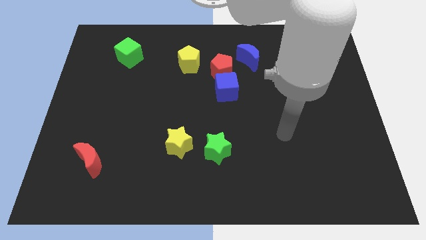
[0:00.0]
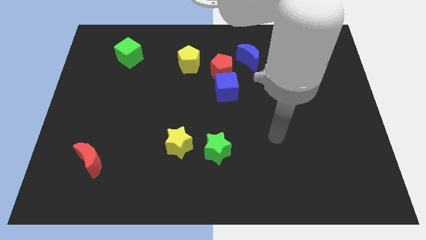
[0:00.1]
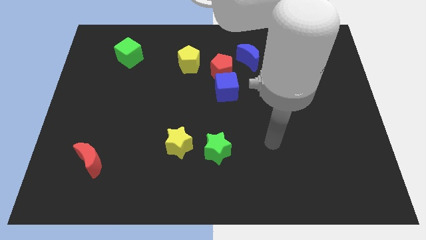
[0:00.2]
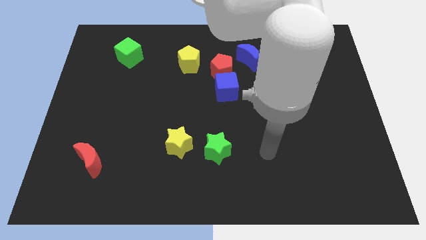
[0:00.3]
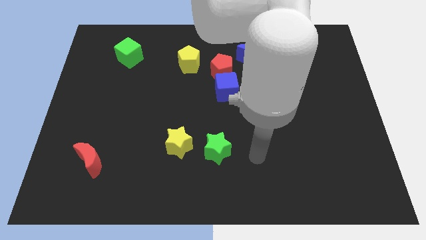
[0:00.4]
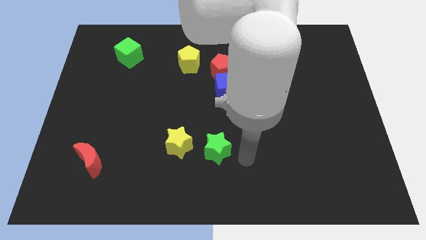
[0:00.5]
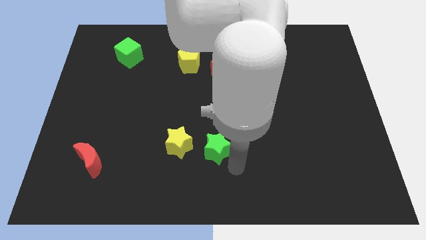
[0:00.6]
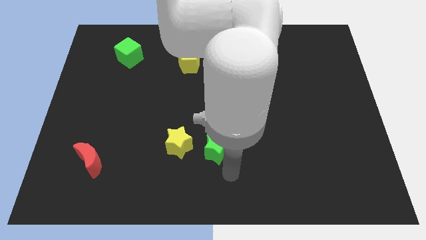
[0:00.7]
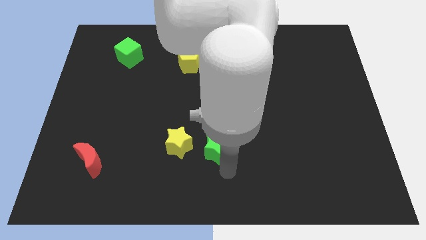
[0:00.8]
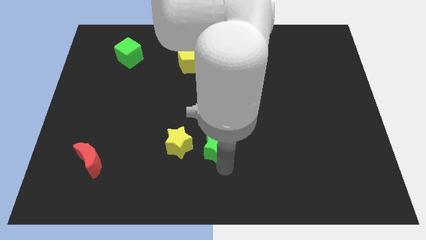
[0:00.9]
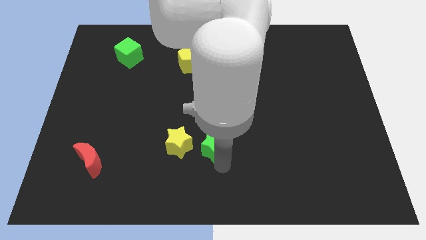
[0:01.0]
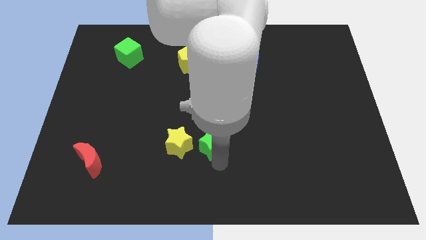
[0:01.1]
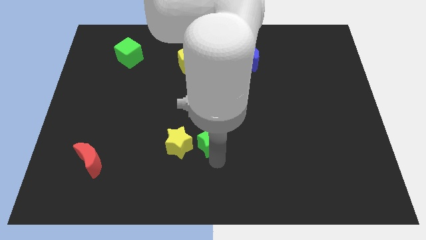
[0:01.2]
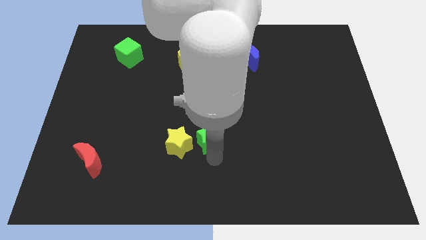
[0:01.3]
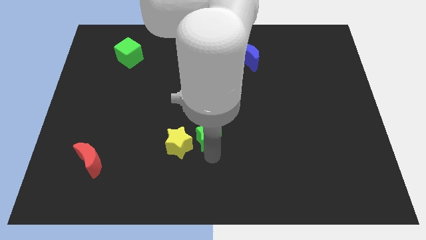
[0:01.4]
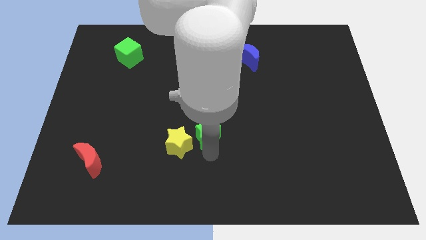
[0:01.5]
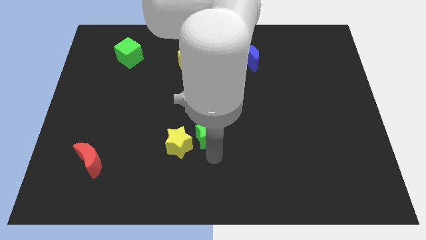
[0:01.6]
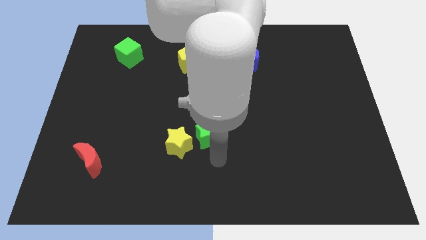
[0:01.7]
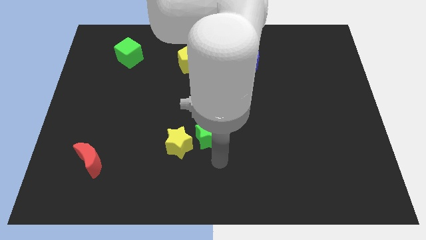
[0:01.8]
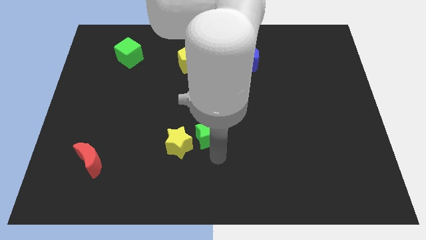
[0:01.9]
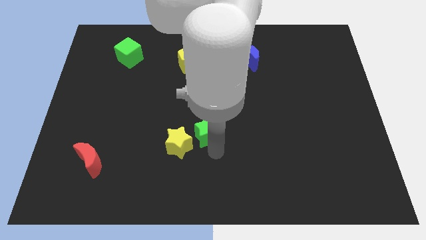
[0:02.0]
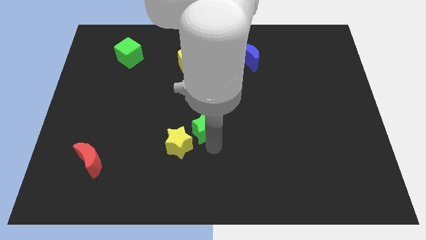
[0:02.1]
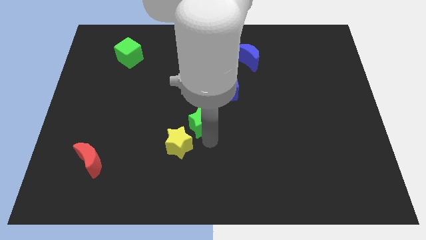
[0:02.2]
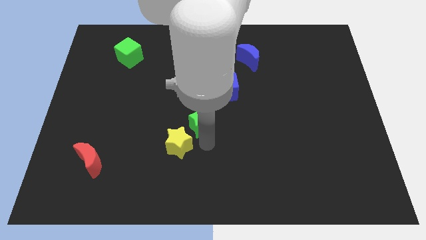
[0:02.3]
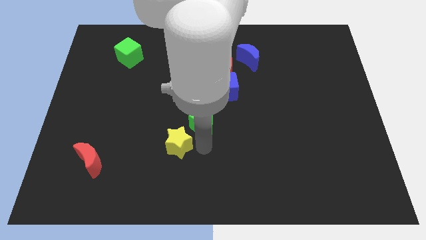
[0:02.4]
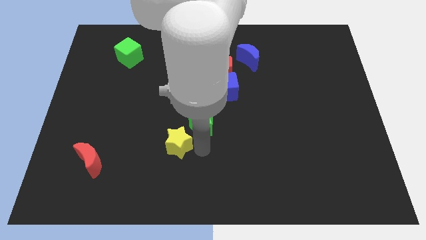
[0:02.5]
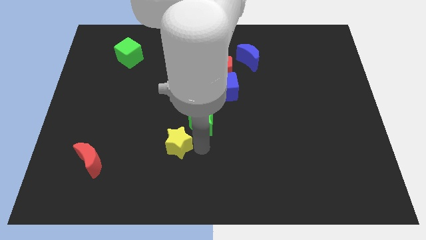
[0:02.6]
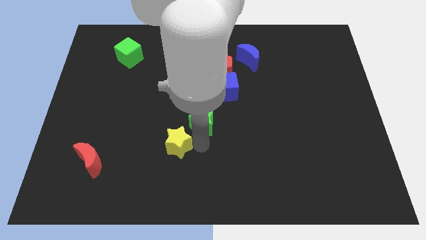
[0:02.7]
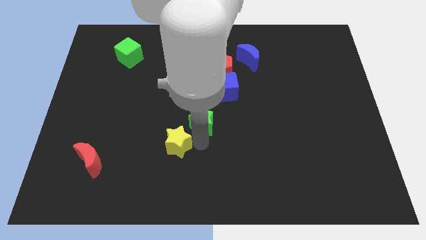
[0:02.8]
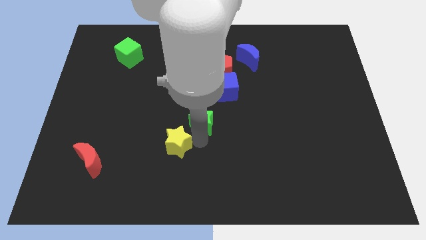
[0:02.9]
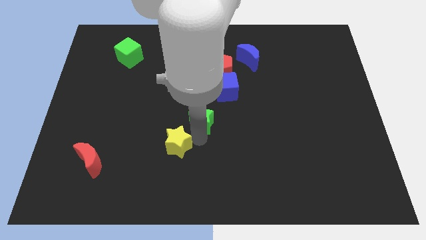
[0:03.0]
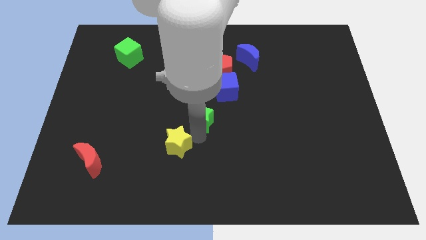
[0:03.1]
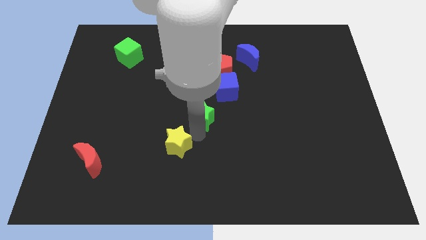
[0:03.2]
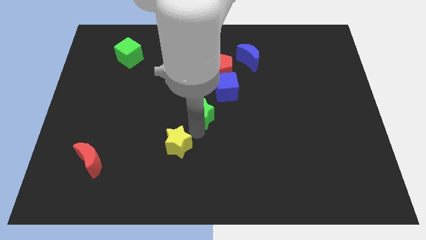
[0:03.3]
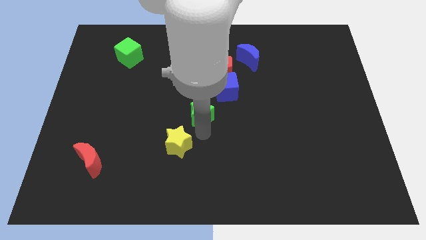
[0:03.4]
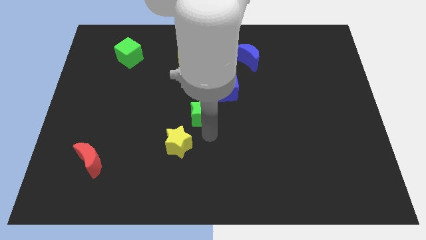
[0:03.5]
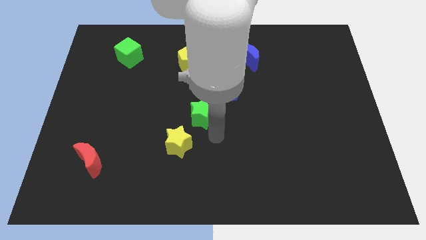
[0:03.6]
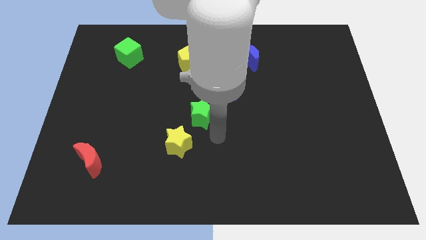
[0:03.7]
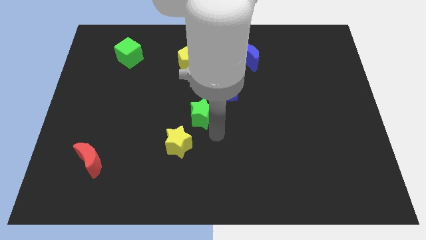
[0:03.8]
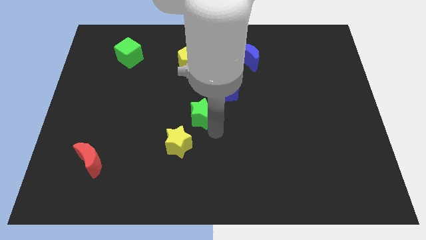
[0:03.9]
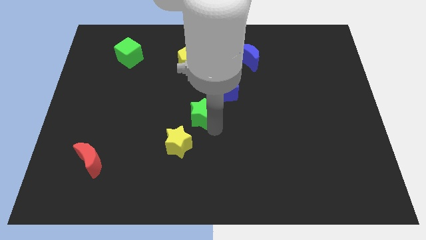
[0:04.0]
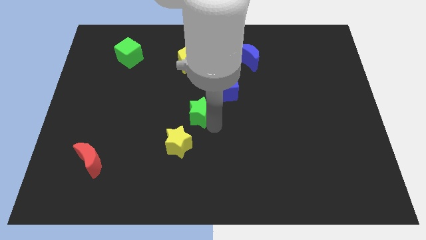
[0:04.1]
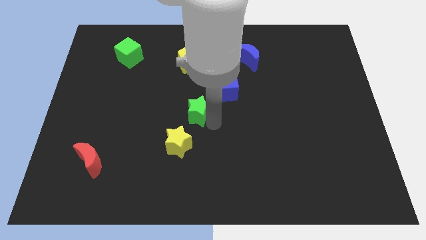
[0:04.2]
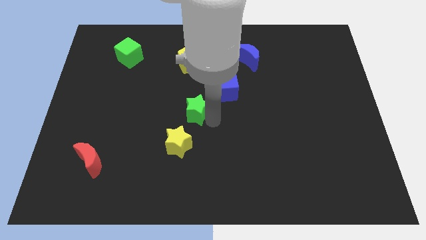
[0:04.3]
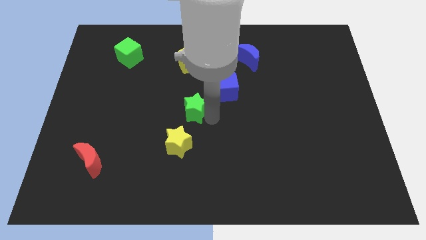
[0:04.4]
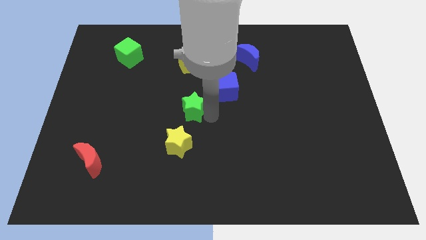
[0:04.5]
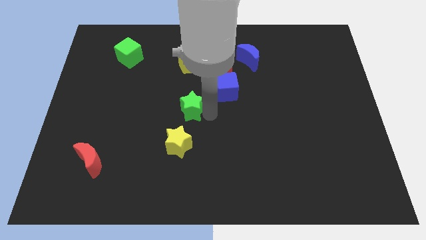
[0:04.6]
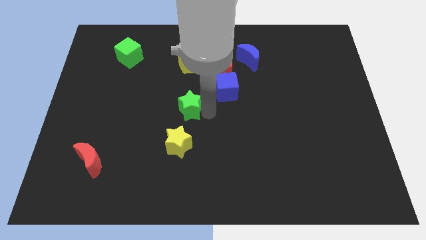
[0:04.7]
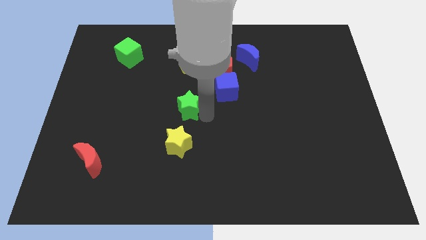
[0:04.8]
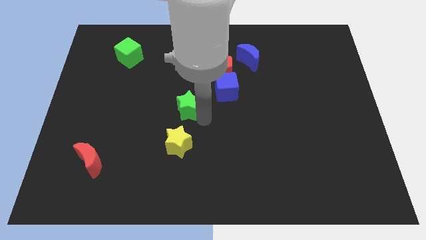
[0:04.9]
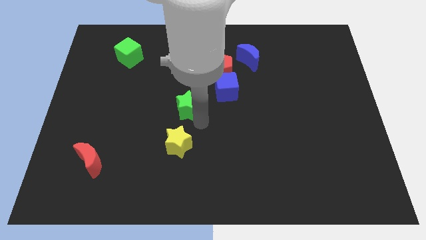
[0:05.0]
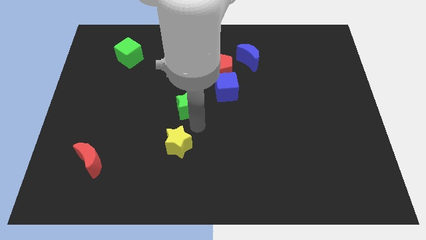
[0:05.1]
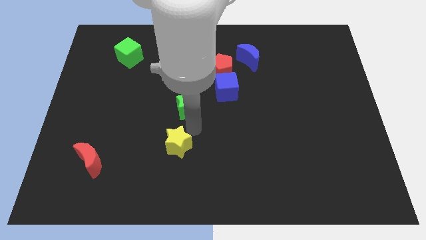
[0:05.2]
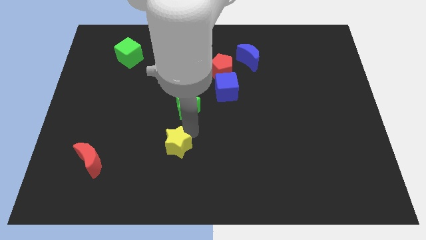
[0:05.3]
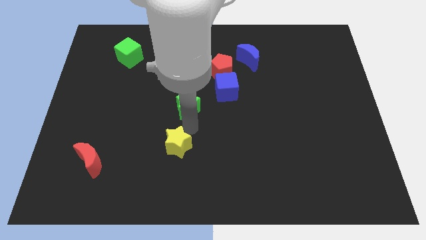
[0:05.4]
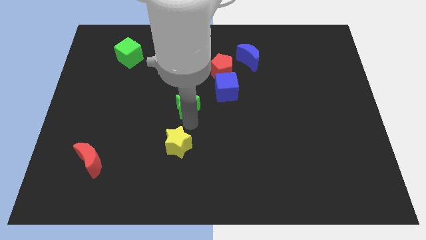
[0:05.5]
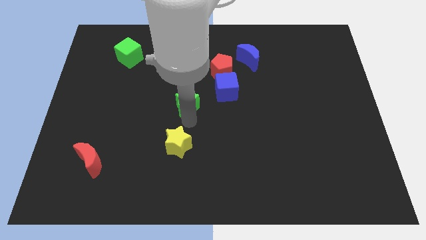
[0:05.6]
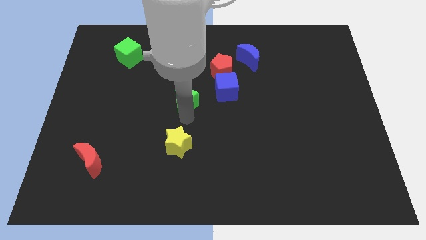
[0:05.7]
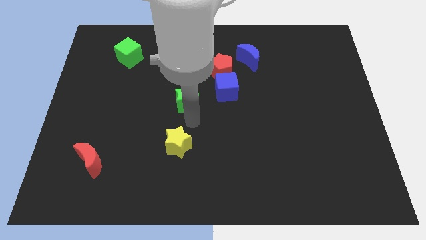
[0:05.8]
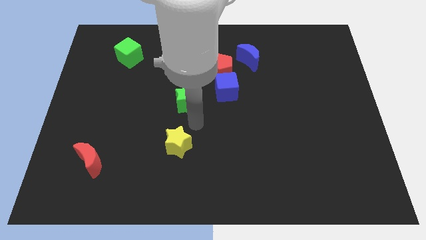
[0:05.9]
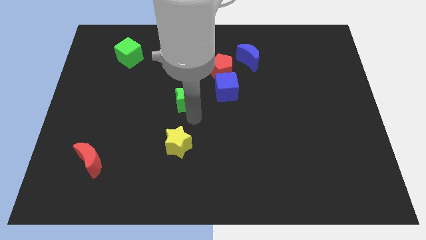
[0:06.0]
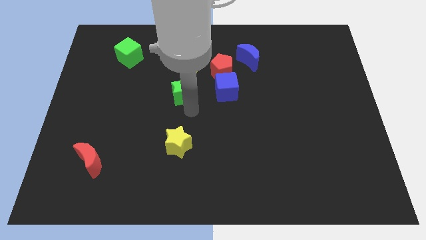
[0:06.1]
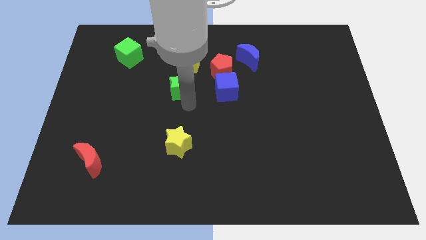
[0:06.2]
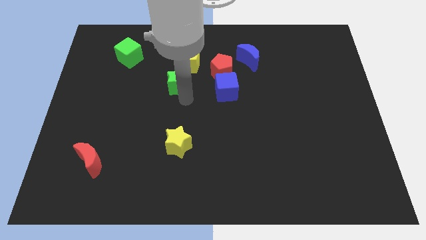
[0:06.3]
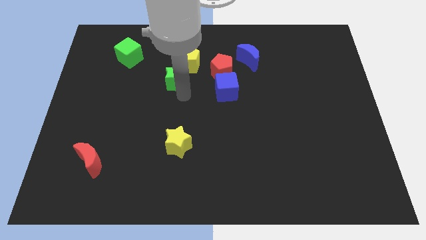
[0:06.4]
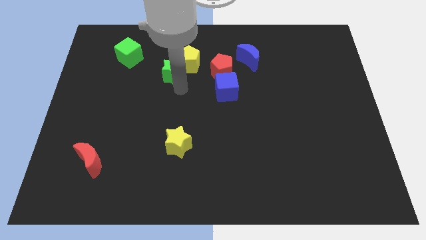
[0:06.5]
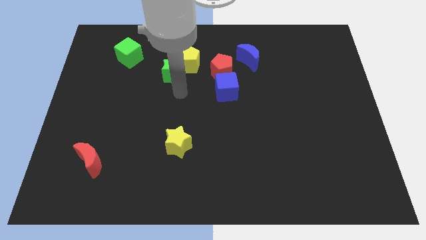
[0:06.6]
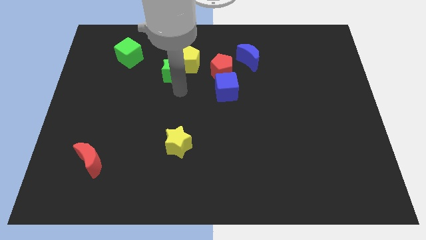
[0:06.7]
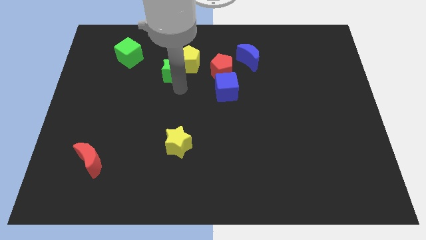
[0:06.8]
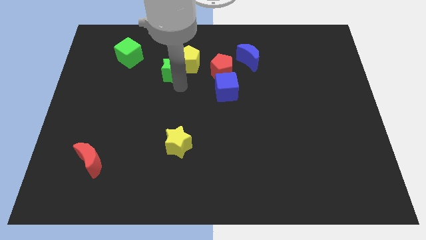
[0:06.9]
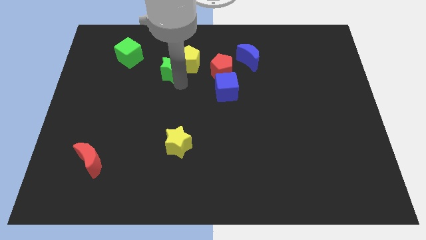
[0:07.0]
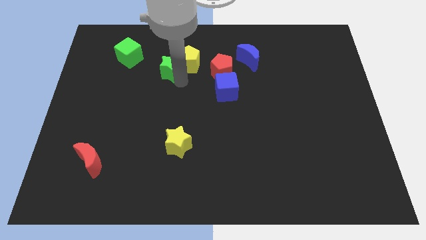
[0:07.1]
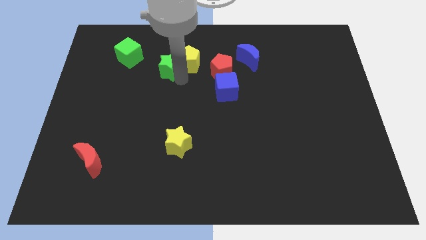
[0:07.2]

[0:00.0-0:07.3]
push the green star to the right of the green cube

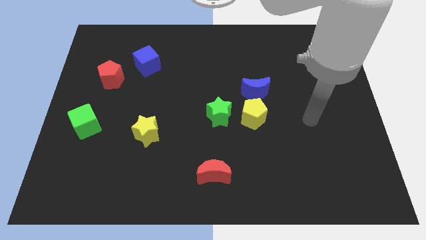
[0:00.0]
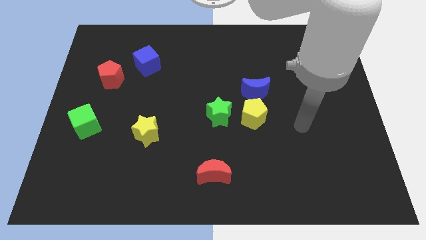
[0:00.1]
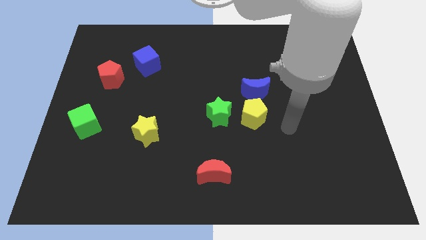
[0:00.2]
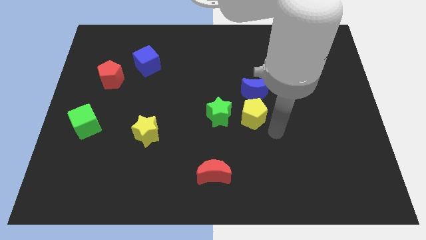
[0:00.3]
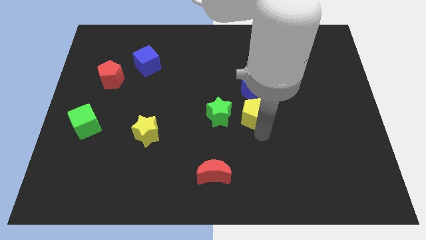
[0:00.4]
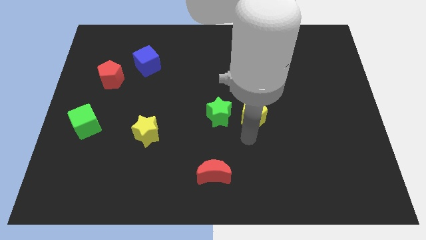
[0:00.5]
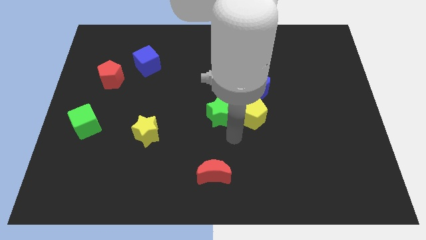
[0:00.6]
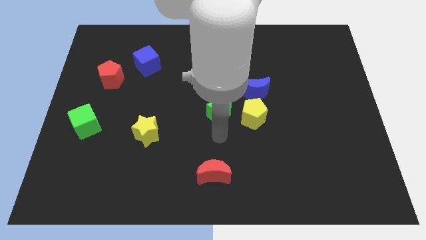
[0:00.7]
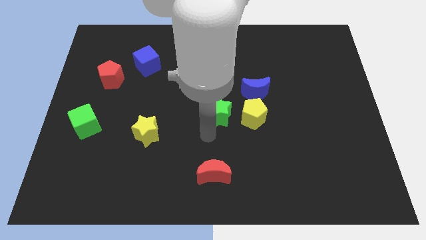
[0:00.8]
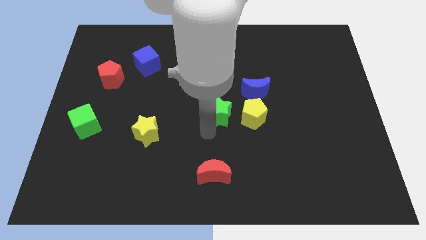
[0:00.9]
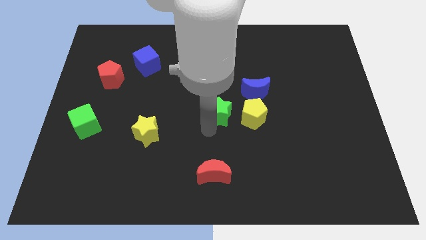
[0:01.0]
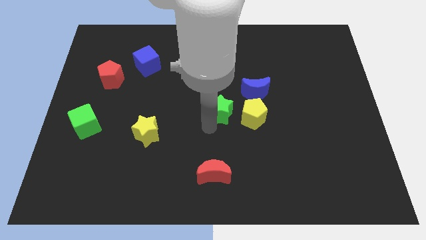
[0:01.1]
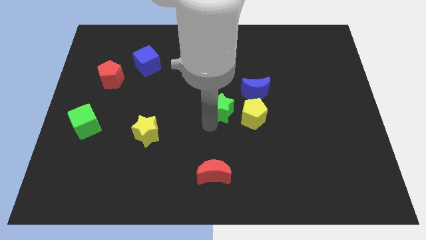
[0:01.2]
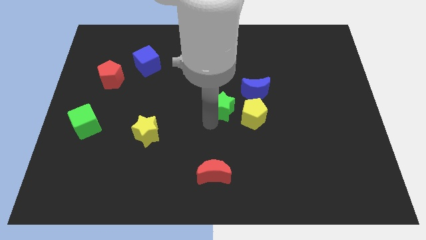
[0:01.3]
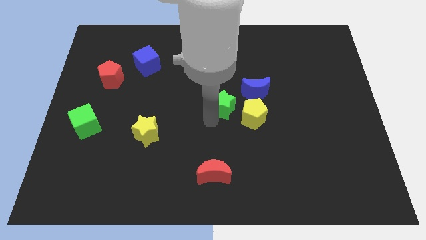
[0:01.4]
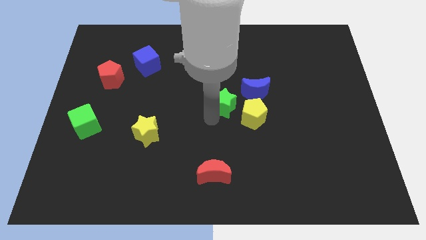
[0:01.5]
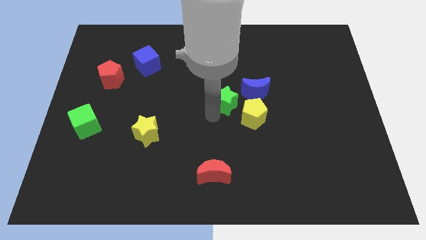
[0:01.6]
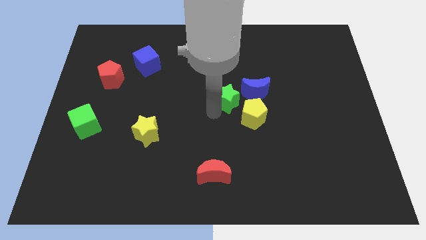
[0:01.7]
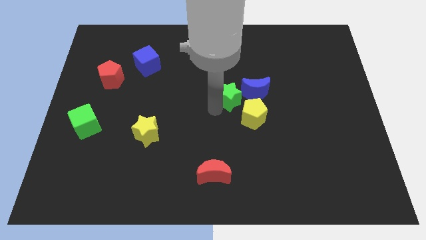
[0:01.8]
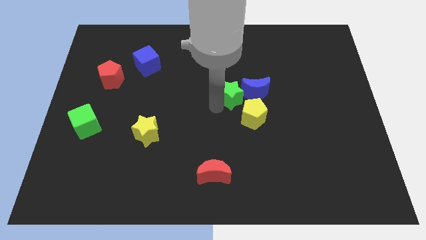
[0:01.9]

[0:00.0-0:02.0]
move the green star above the yellow pentagon
